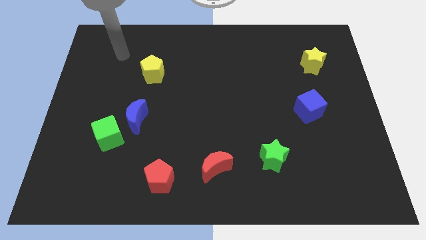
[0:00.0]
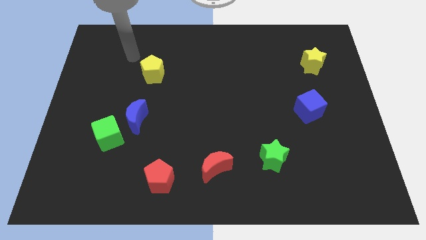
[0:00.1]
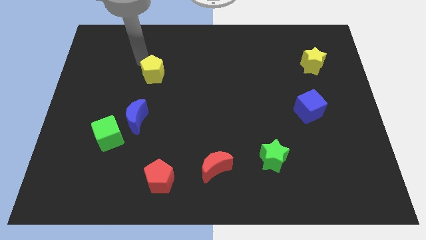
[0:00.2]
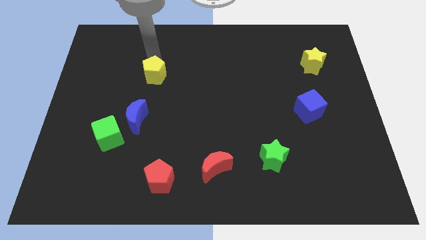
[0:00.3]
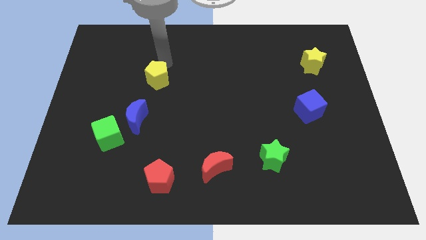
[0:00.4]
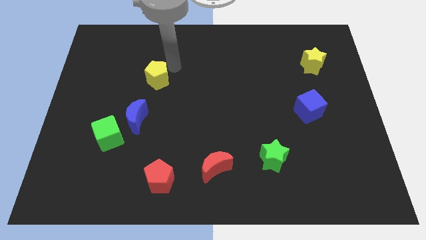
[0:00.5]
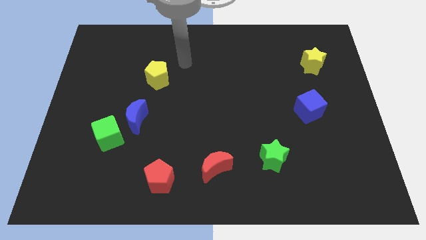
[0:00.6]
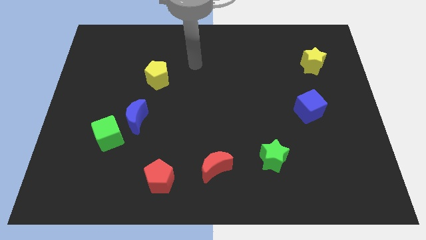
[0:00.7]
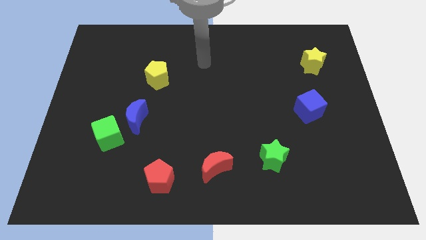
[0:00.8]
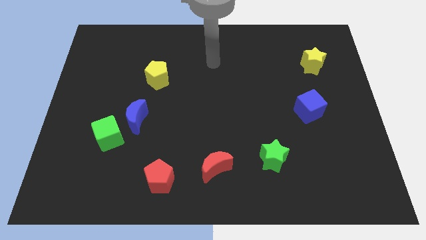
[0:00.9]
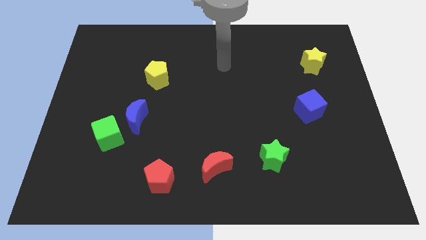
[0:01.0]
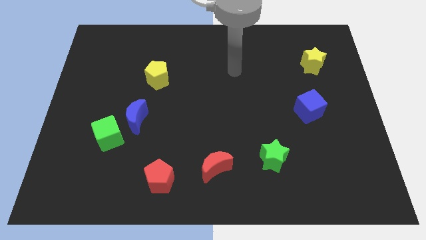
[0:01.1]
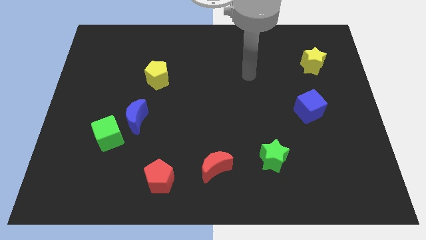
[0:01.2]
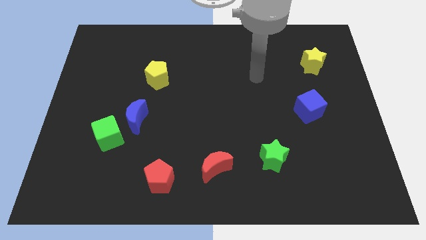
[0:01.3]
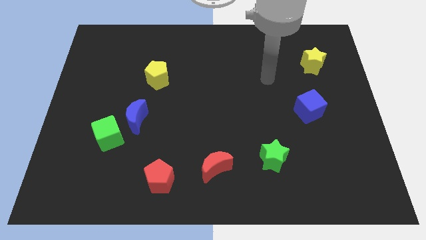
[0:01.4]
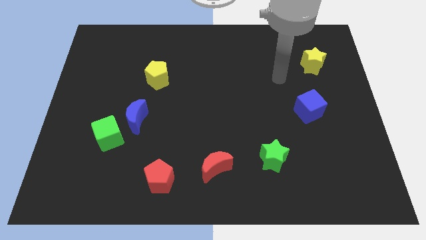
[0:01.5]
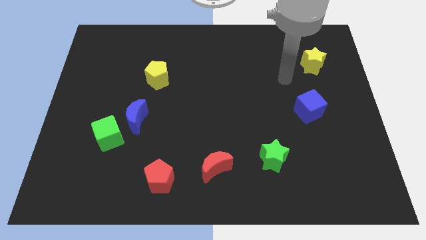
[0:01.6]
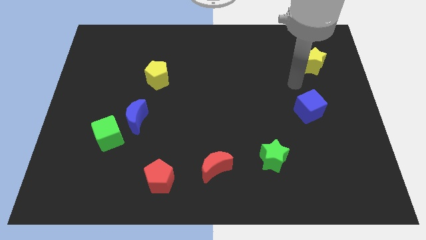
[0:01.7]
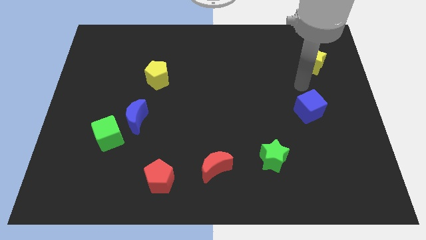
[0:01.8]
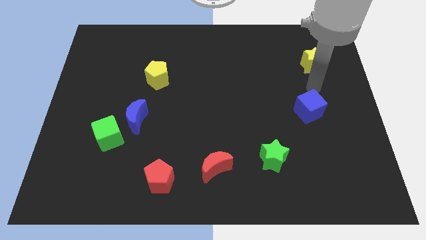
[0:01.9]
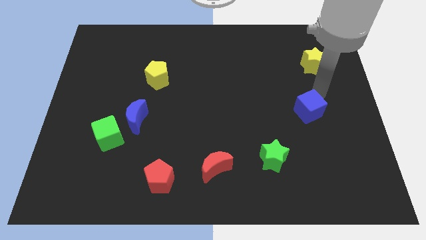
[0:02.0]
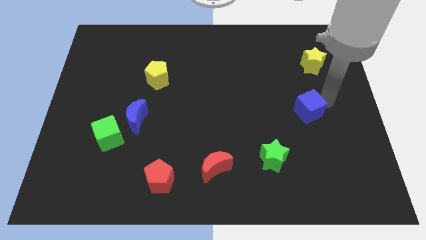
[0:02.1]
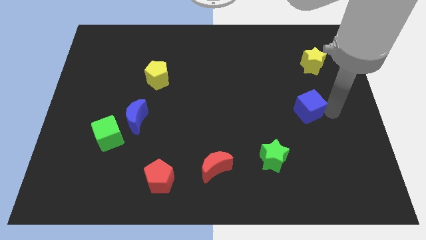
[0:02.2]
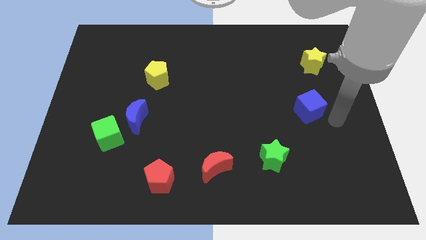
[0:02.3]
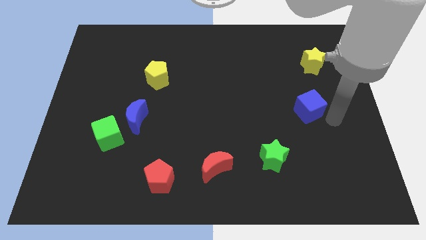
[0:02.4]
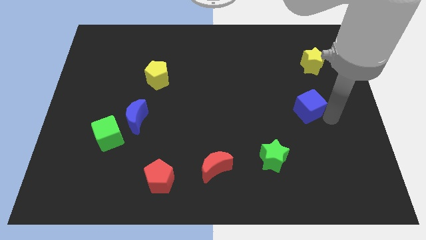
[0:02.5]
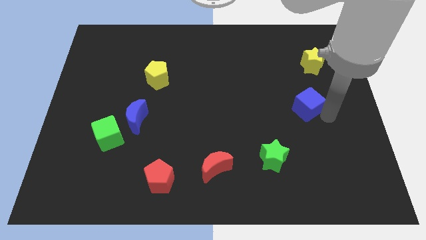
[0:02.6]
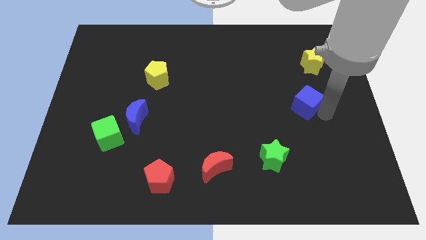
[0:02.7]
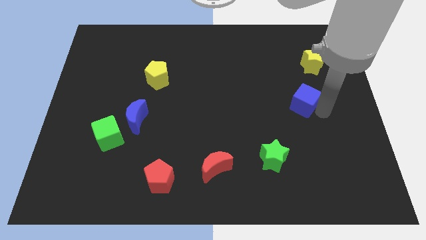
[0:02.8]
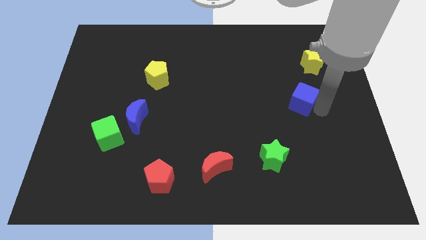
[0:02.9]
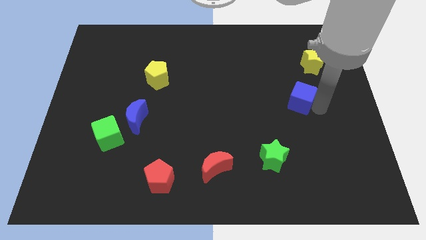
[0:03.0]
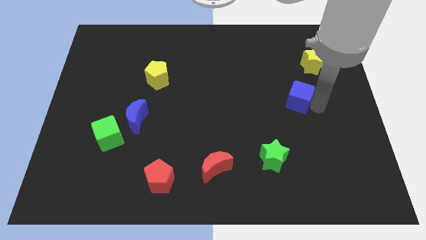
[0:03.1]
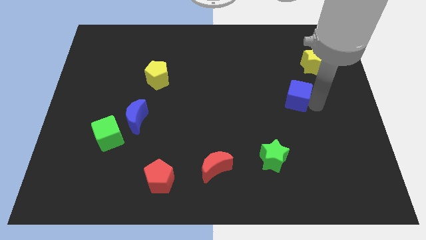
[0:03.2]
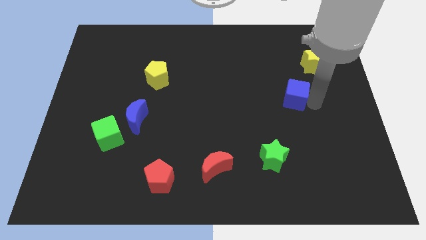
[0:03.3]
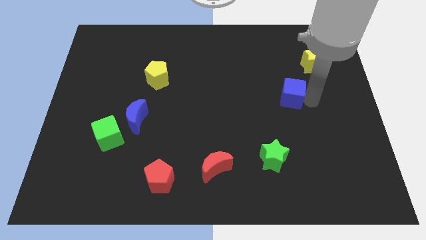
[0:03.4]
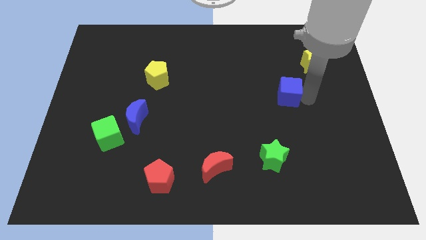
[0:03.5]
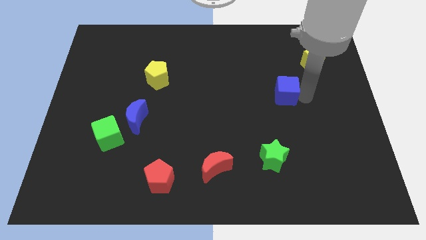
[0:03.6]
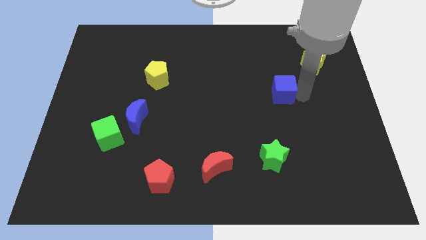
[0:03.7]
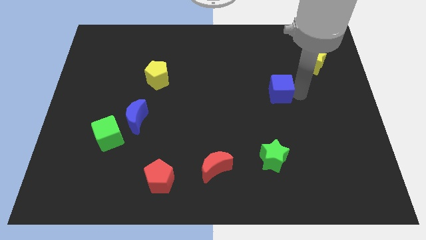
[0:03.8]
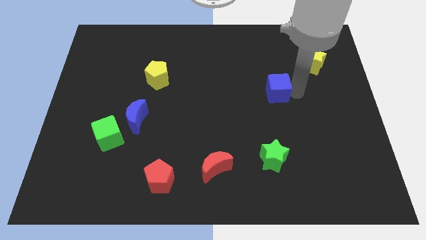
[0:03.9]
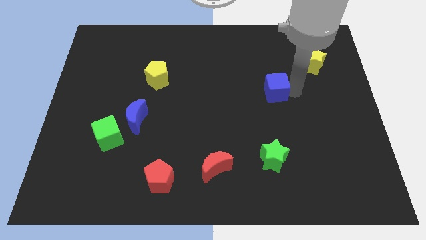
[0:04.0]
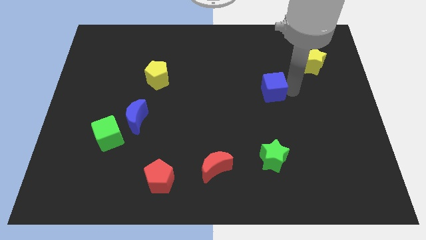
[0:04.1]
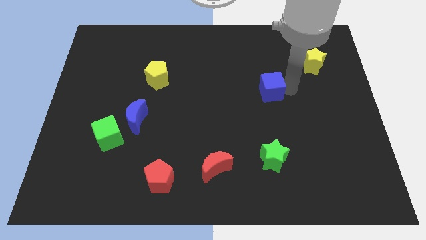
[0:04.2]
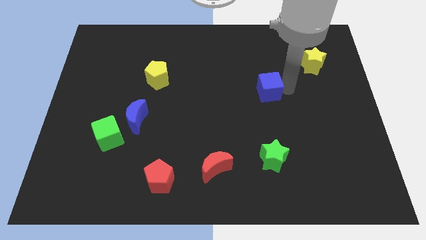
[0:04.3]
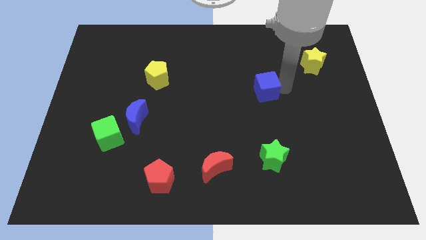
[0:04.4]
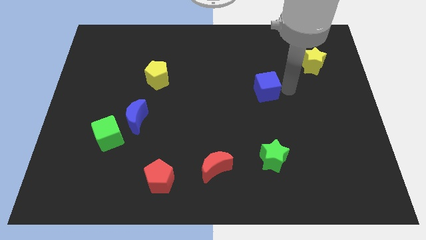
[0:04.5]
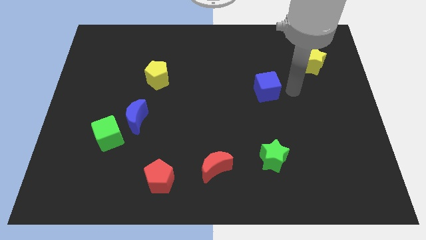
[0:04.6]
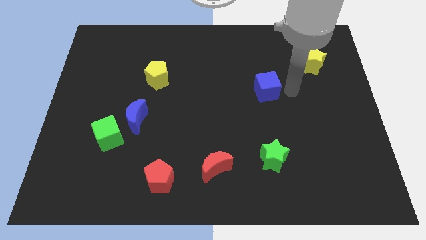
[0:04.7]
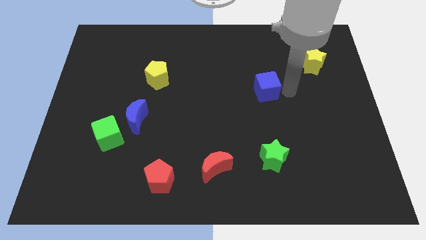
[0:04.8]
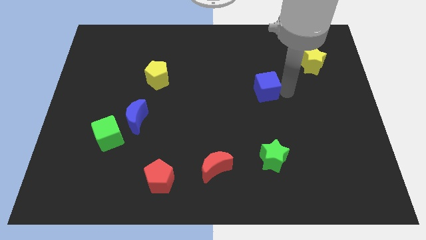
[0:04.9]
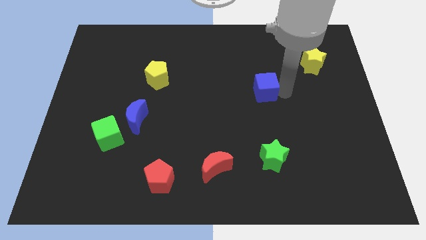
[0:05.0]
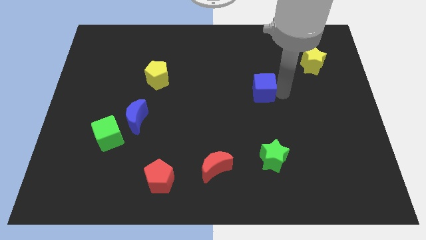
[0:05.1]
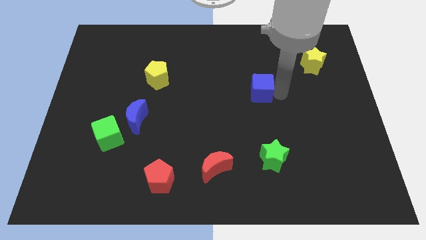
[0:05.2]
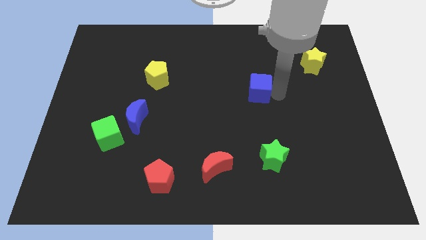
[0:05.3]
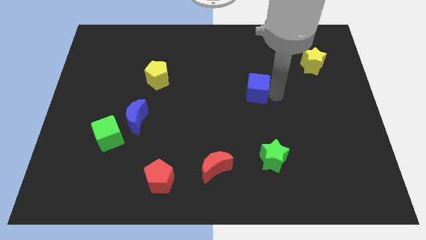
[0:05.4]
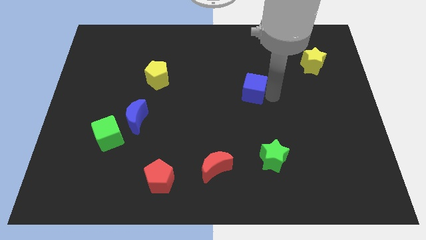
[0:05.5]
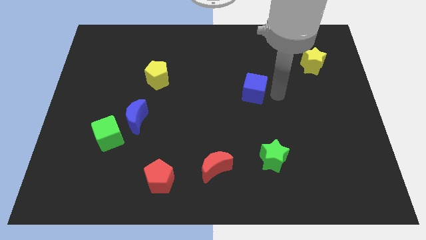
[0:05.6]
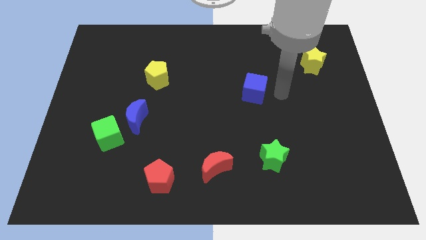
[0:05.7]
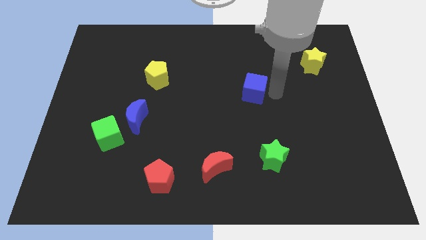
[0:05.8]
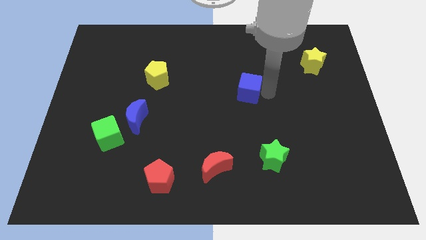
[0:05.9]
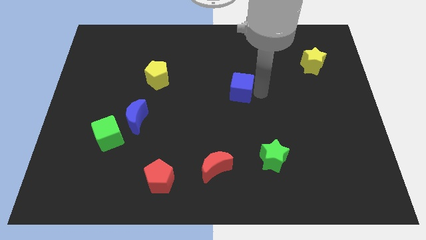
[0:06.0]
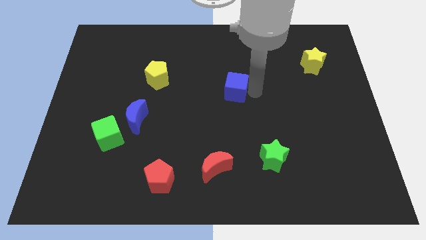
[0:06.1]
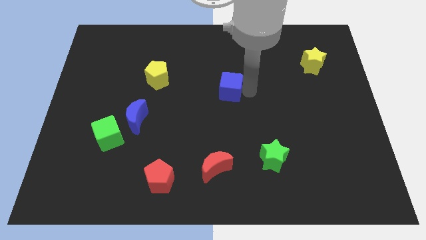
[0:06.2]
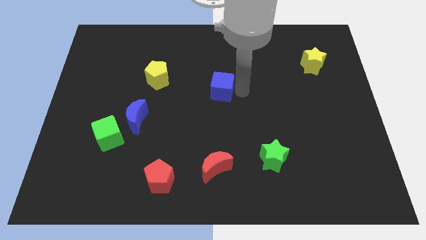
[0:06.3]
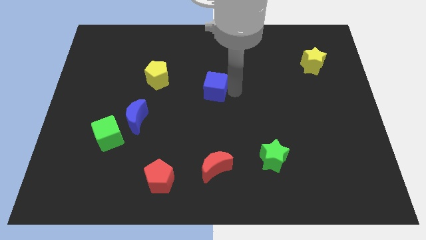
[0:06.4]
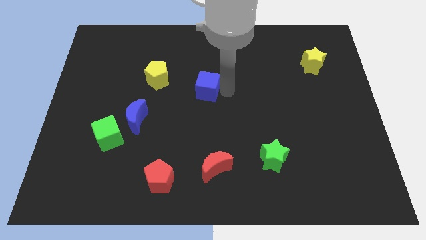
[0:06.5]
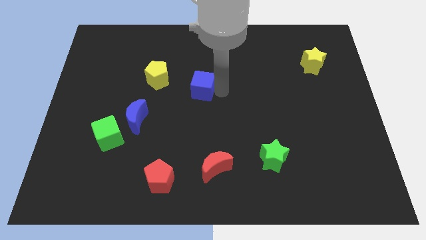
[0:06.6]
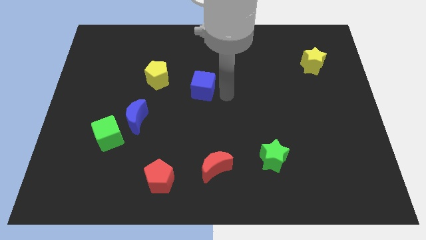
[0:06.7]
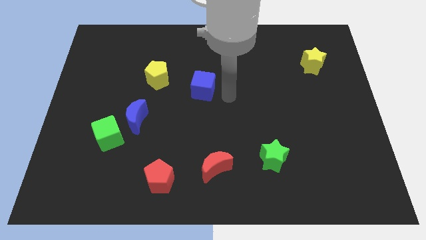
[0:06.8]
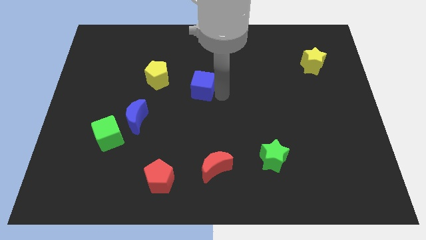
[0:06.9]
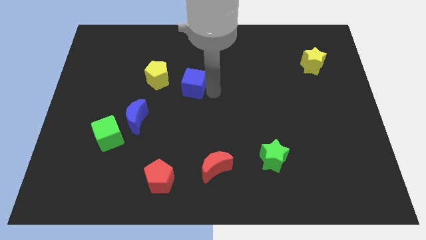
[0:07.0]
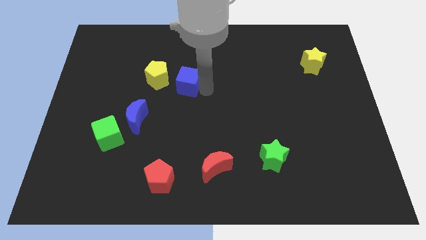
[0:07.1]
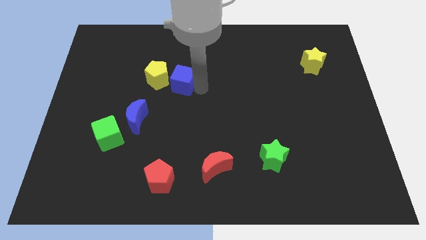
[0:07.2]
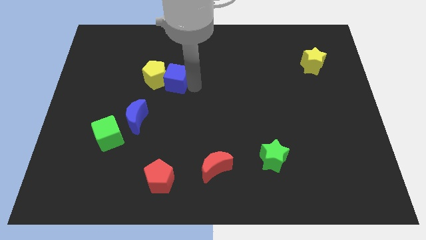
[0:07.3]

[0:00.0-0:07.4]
push the blue cube close to the yellow pentagon
